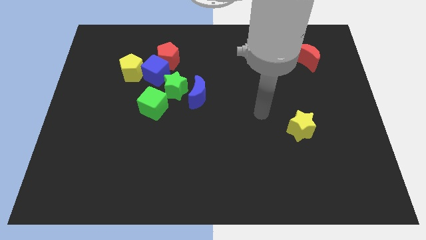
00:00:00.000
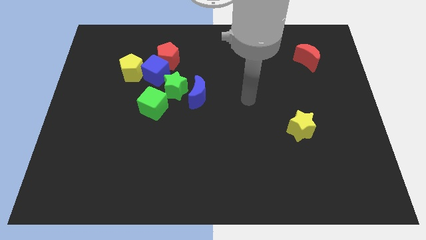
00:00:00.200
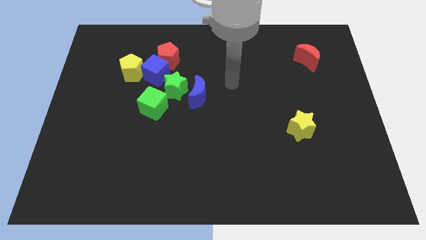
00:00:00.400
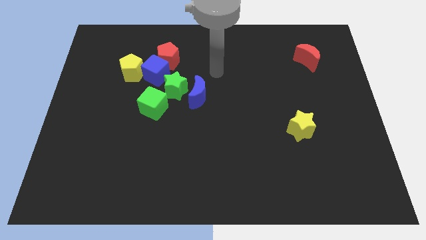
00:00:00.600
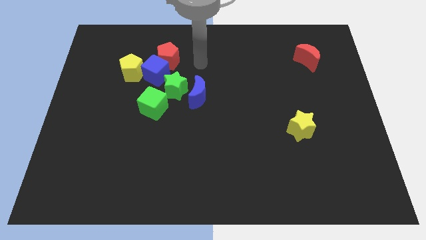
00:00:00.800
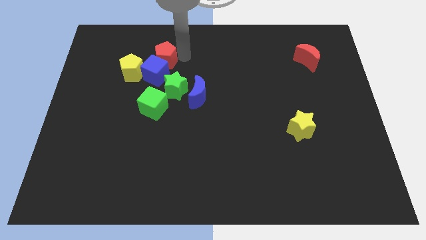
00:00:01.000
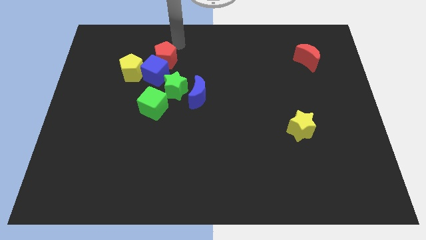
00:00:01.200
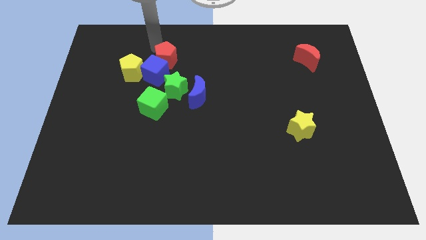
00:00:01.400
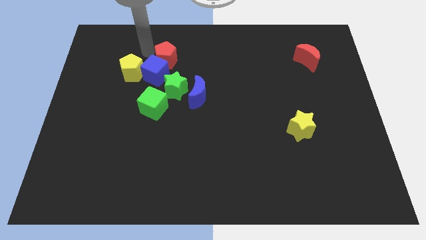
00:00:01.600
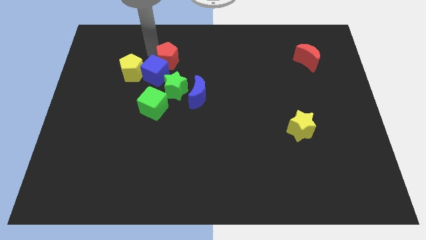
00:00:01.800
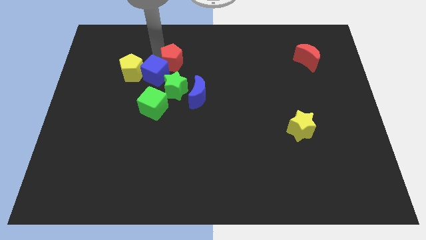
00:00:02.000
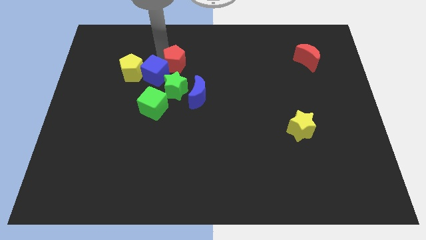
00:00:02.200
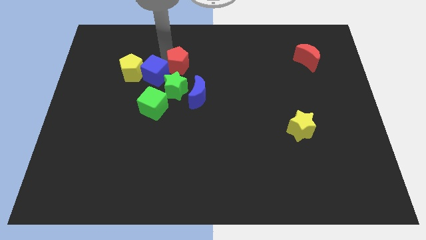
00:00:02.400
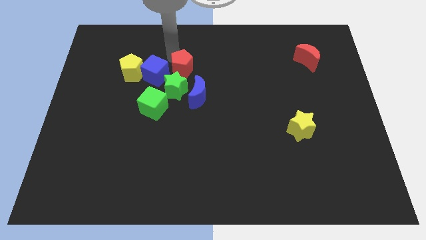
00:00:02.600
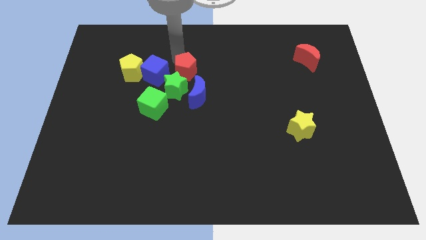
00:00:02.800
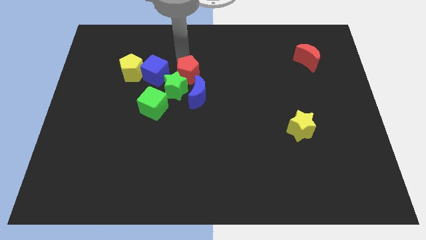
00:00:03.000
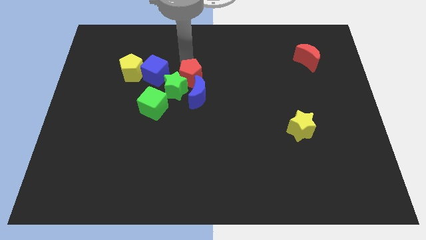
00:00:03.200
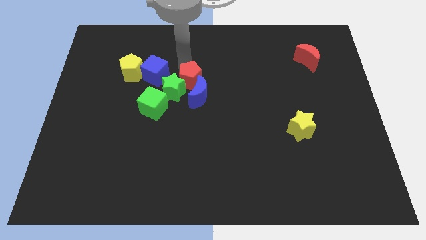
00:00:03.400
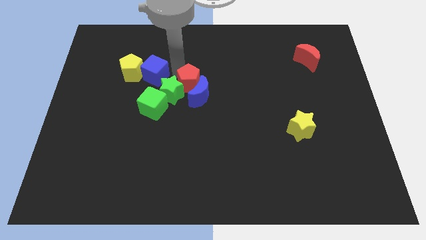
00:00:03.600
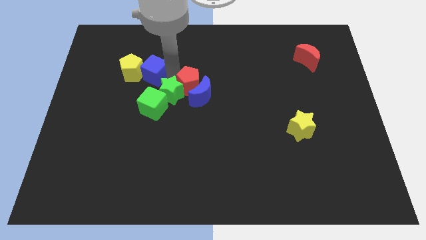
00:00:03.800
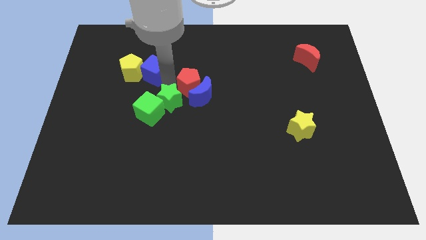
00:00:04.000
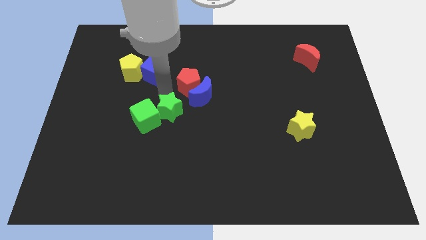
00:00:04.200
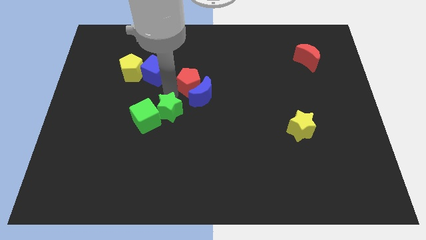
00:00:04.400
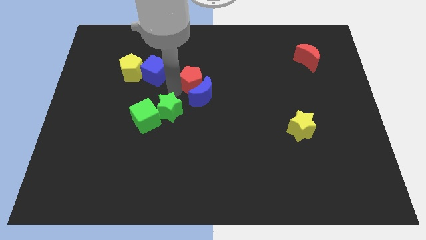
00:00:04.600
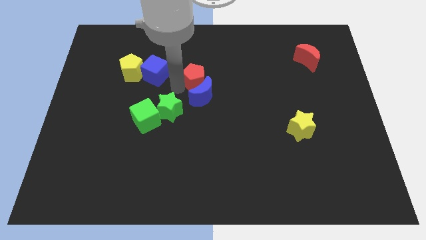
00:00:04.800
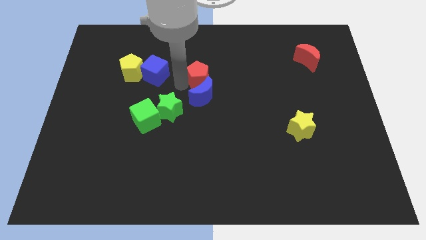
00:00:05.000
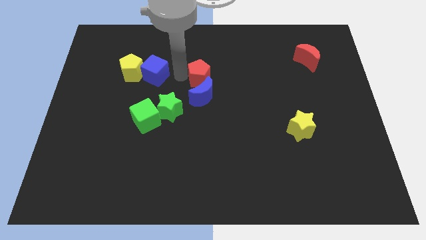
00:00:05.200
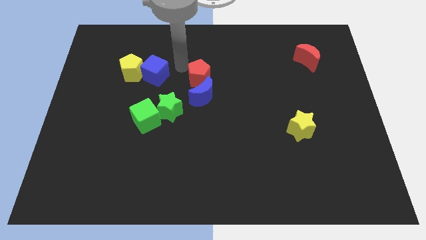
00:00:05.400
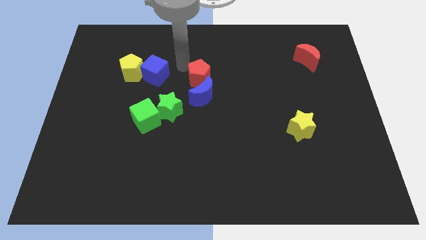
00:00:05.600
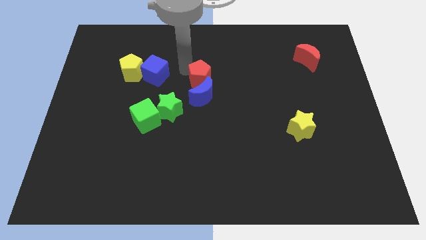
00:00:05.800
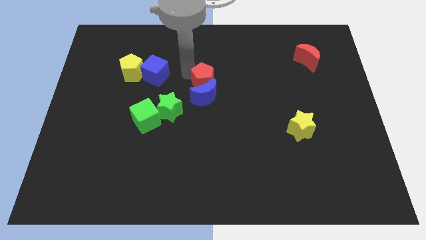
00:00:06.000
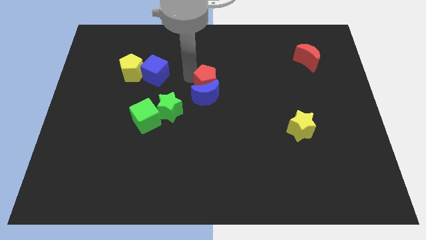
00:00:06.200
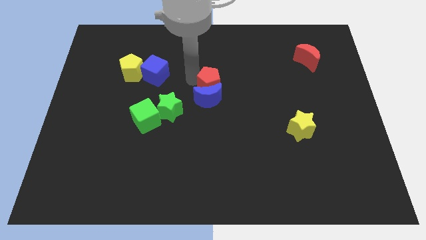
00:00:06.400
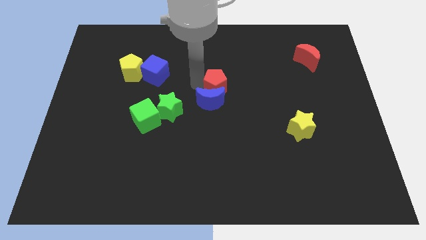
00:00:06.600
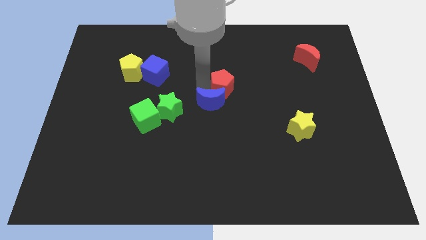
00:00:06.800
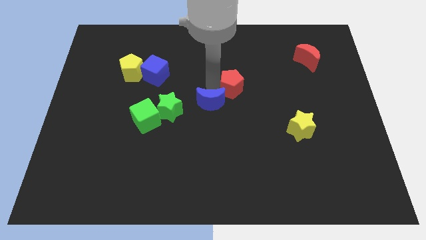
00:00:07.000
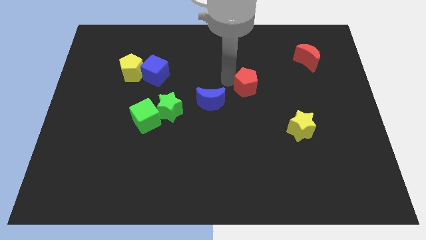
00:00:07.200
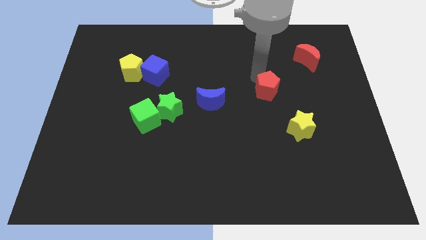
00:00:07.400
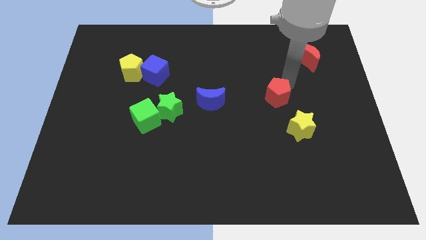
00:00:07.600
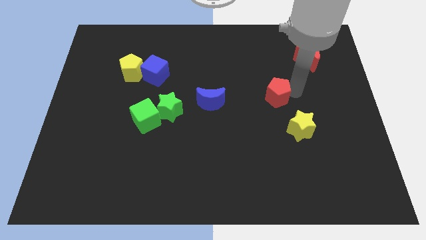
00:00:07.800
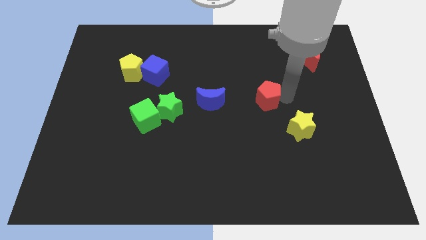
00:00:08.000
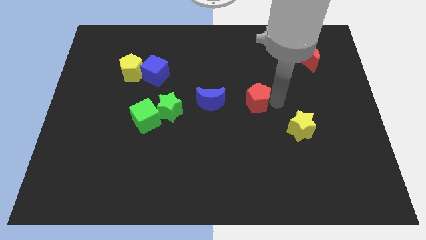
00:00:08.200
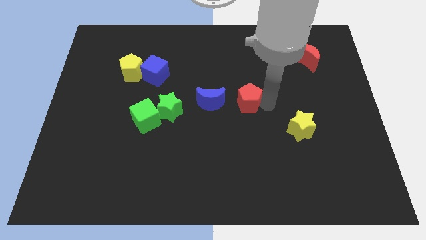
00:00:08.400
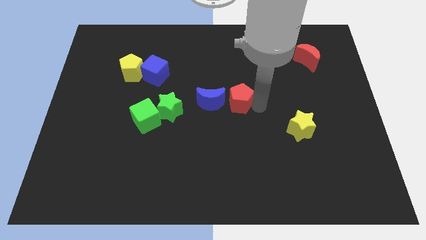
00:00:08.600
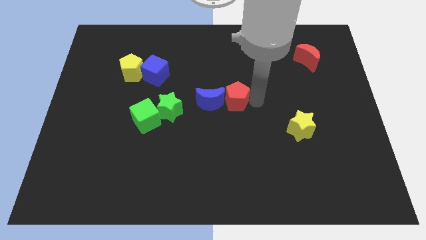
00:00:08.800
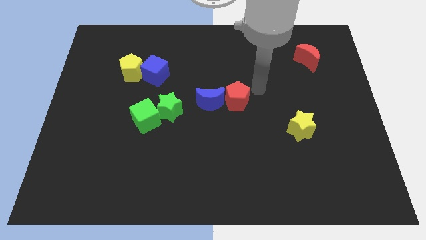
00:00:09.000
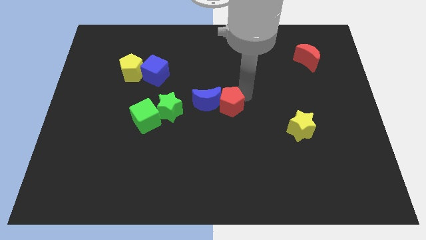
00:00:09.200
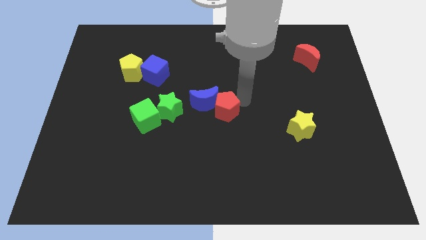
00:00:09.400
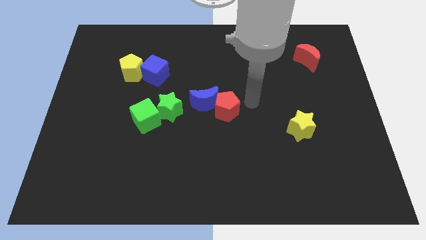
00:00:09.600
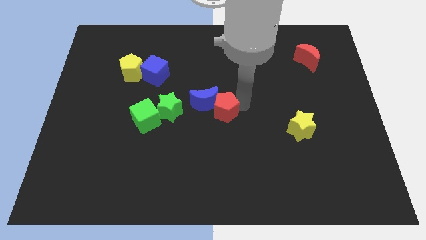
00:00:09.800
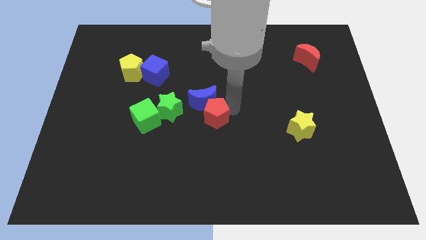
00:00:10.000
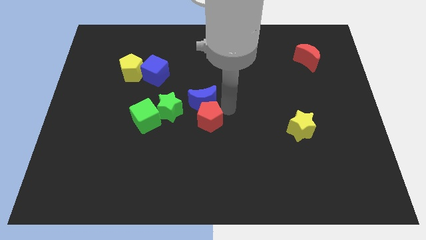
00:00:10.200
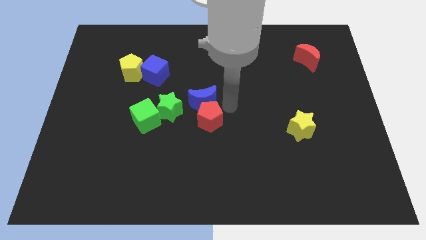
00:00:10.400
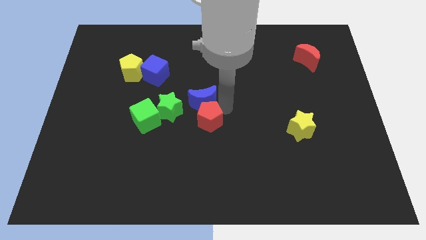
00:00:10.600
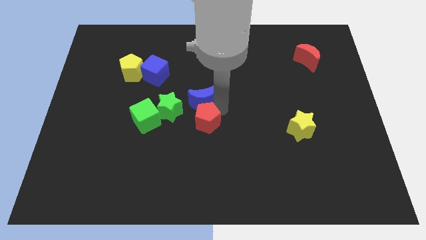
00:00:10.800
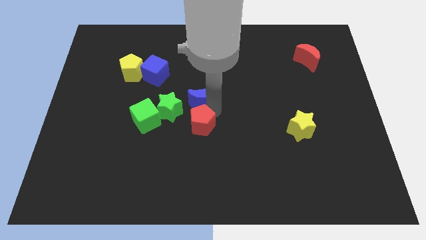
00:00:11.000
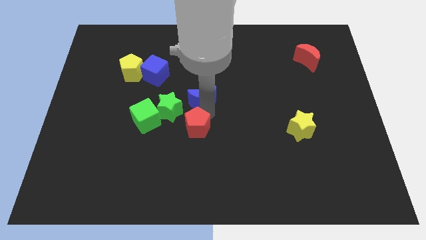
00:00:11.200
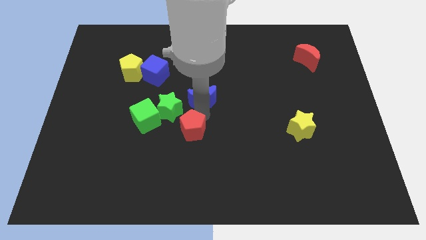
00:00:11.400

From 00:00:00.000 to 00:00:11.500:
move the red pentagon downwards

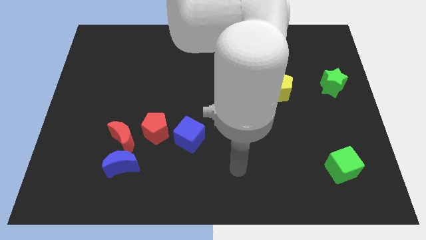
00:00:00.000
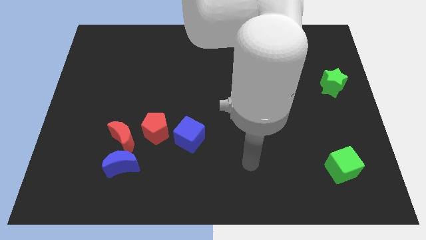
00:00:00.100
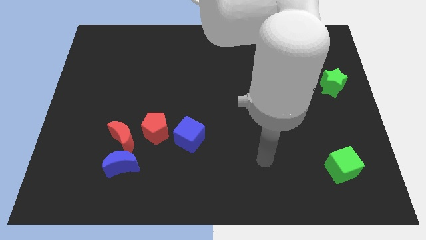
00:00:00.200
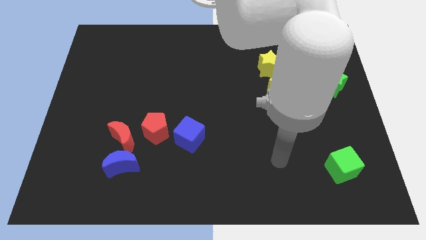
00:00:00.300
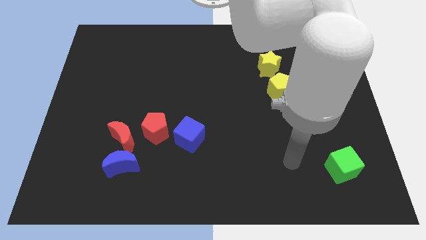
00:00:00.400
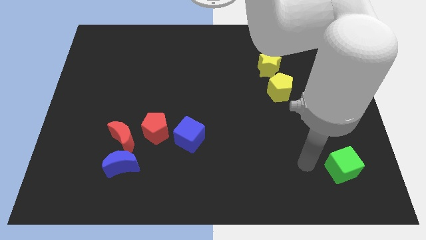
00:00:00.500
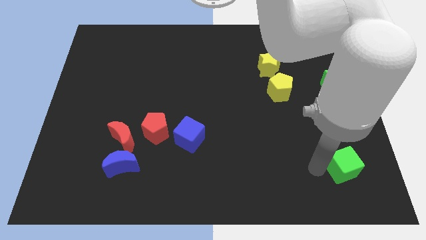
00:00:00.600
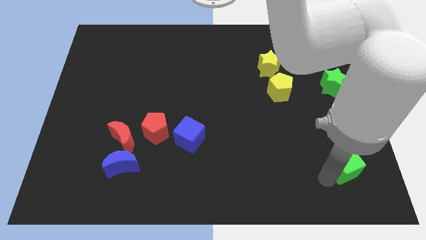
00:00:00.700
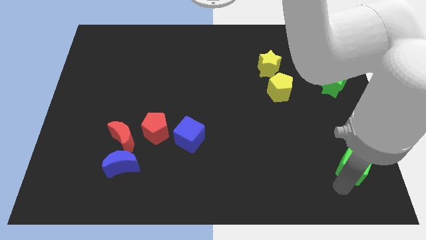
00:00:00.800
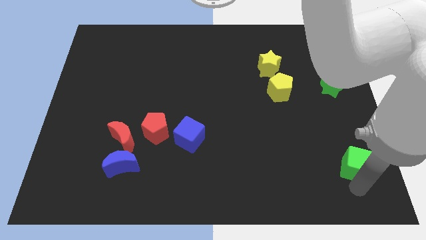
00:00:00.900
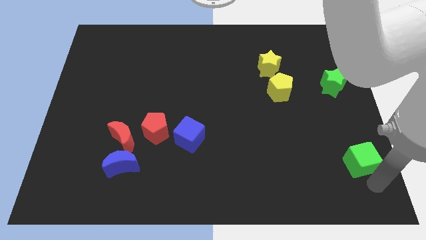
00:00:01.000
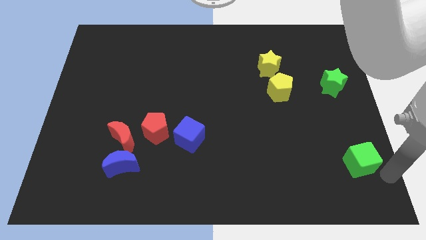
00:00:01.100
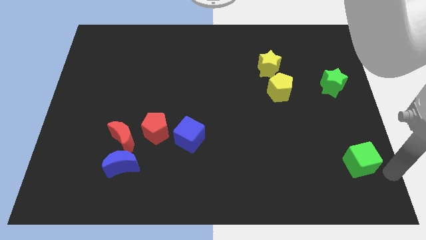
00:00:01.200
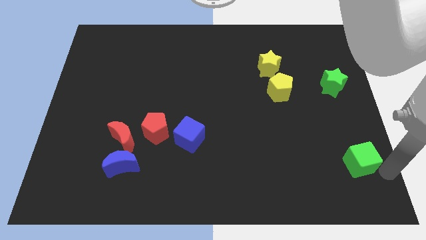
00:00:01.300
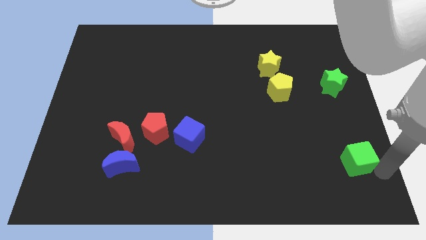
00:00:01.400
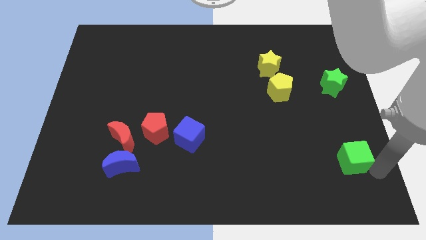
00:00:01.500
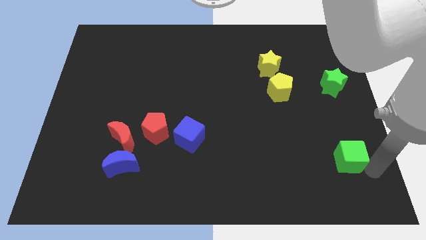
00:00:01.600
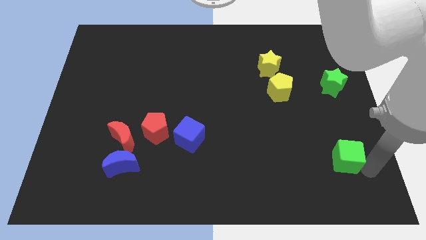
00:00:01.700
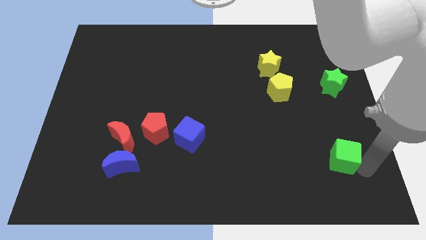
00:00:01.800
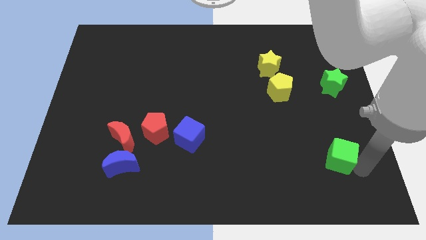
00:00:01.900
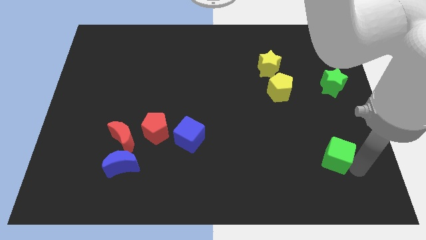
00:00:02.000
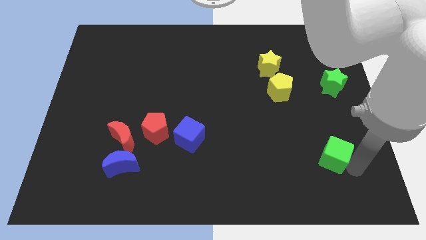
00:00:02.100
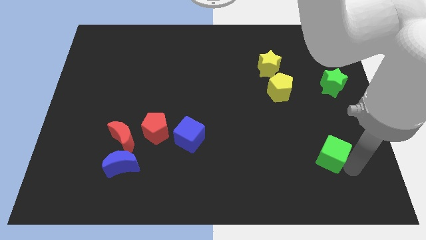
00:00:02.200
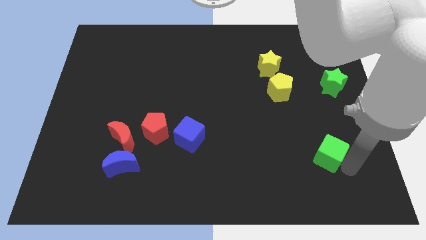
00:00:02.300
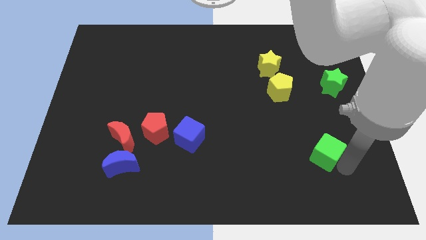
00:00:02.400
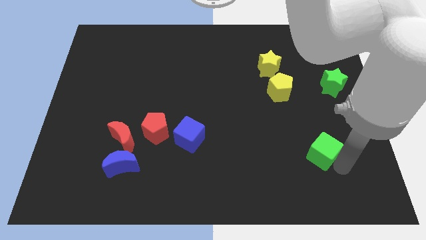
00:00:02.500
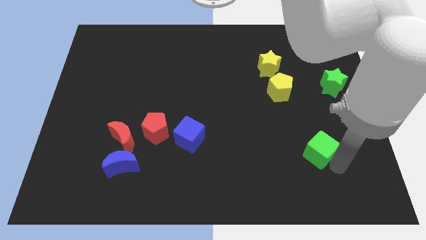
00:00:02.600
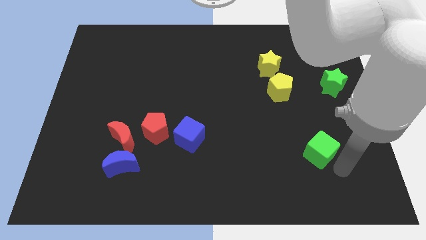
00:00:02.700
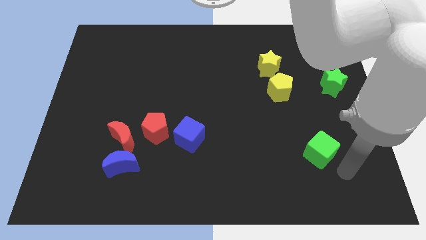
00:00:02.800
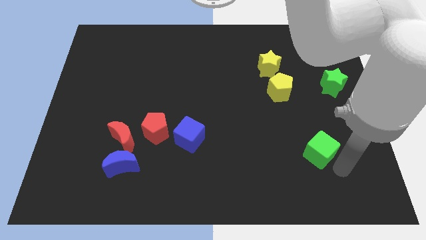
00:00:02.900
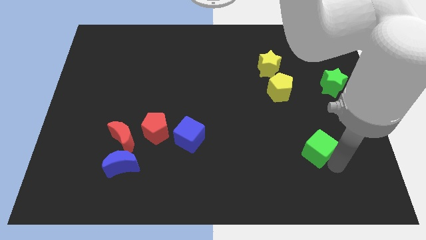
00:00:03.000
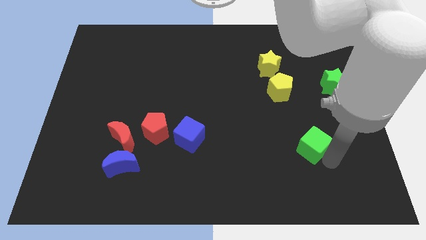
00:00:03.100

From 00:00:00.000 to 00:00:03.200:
slide the green cube slightly upwards and to the left
